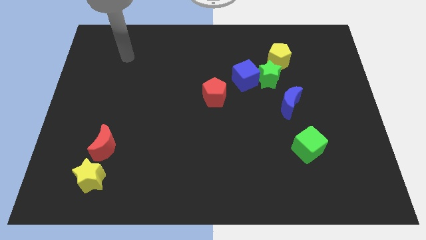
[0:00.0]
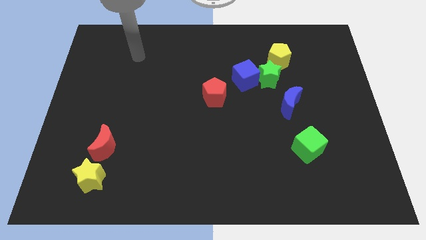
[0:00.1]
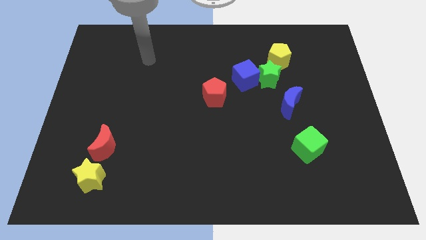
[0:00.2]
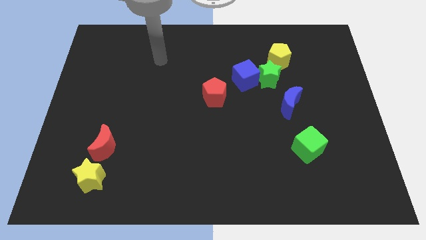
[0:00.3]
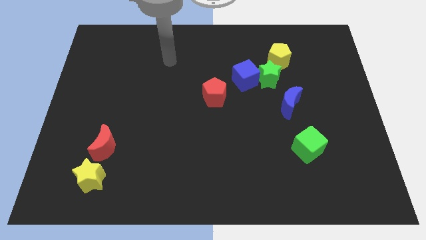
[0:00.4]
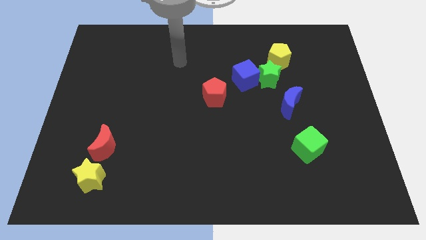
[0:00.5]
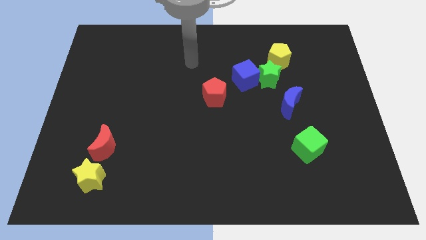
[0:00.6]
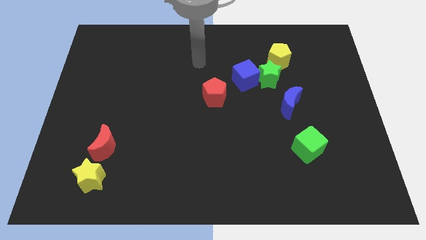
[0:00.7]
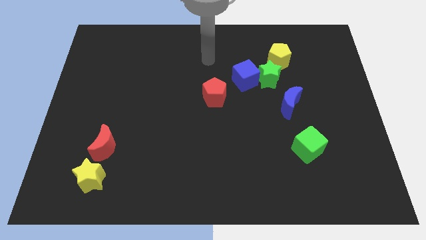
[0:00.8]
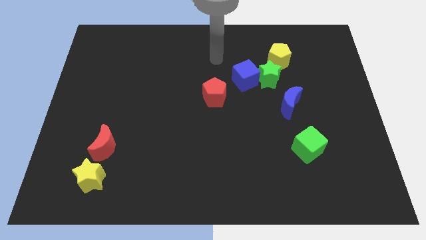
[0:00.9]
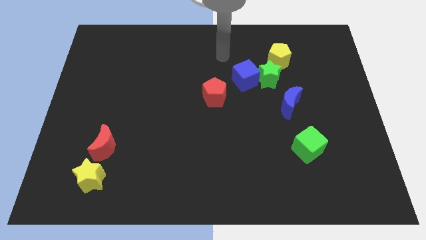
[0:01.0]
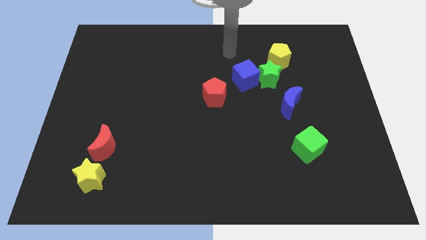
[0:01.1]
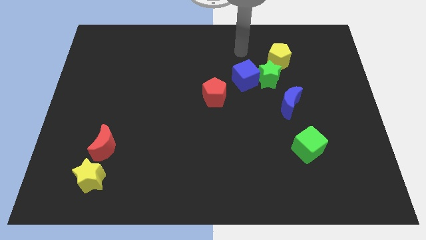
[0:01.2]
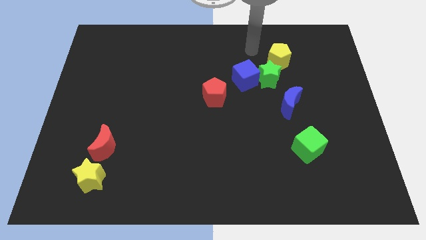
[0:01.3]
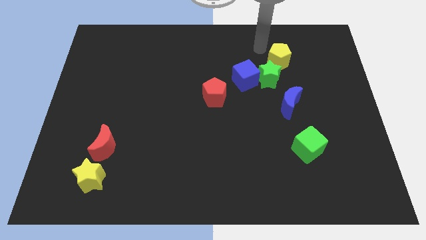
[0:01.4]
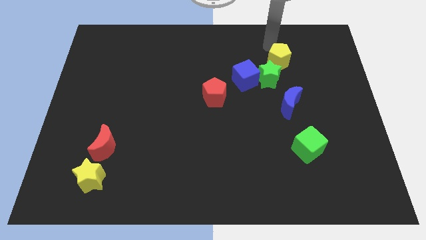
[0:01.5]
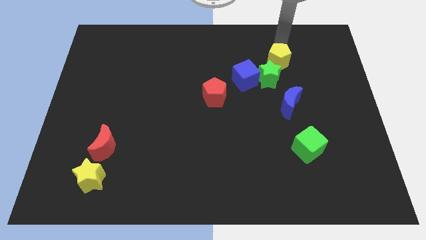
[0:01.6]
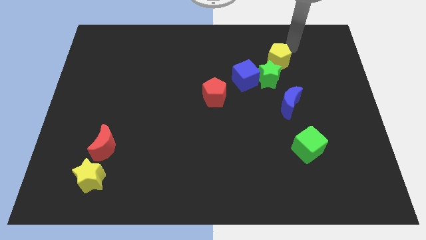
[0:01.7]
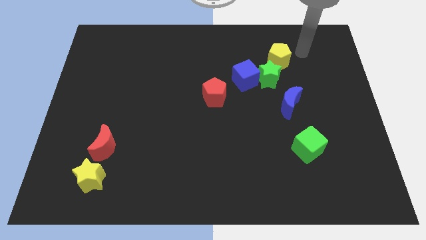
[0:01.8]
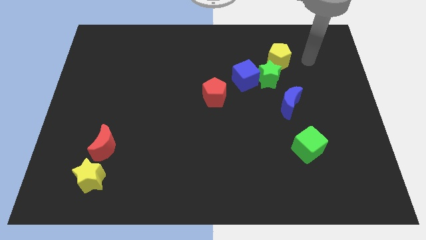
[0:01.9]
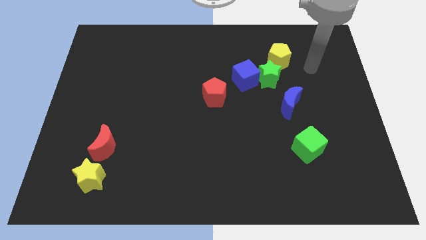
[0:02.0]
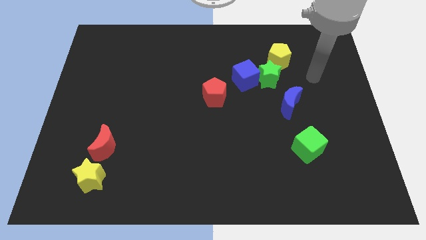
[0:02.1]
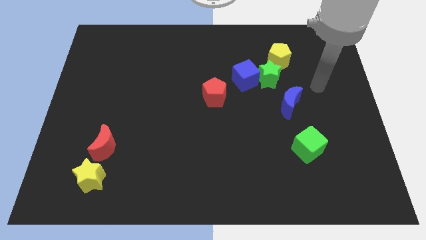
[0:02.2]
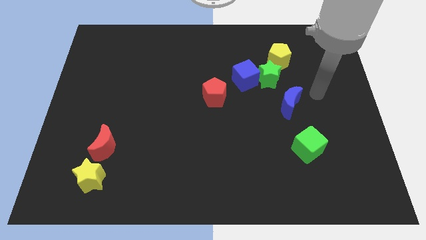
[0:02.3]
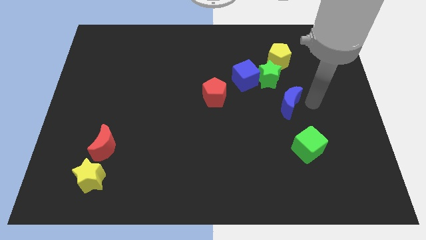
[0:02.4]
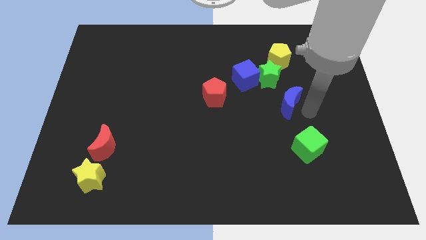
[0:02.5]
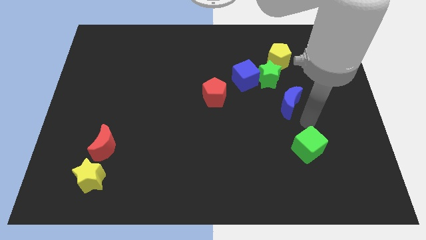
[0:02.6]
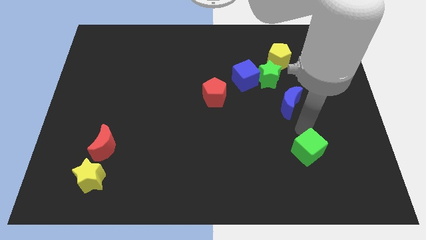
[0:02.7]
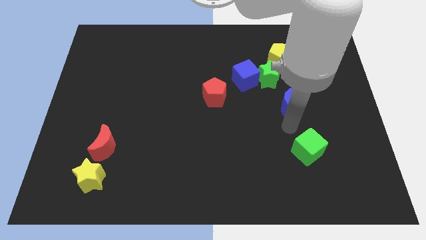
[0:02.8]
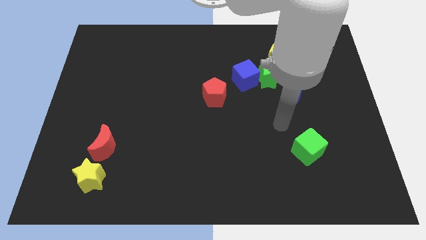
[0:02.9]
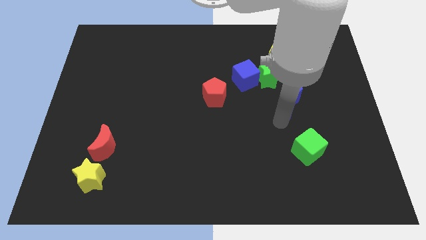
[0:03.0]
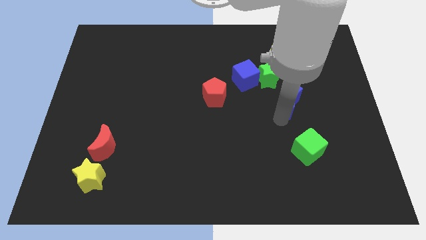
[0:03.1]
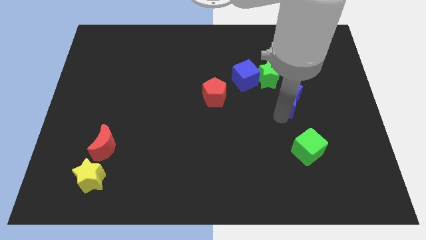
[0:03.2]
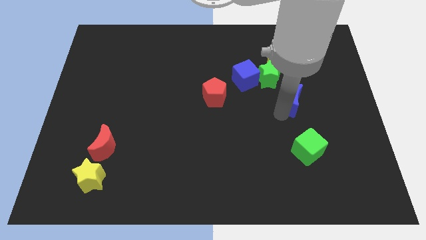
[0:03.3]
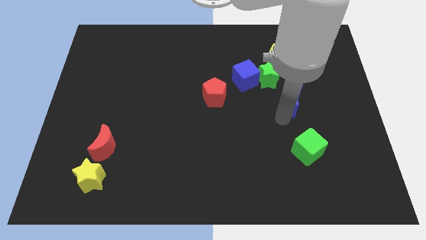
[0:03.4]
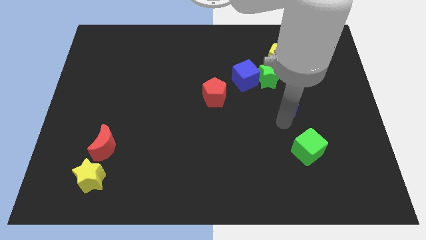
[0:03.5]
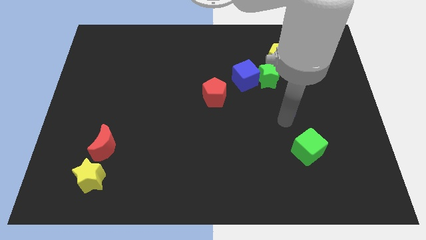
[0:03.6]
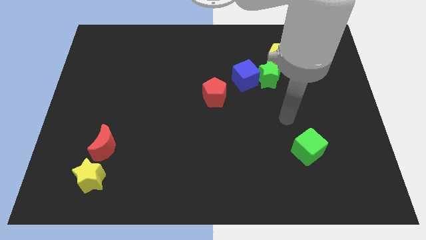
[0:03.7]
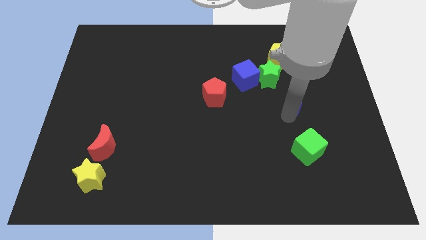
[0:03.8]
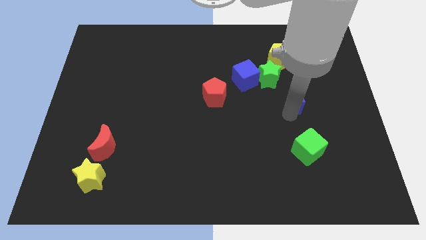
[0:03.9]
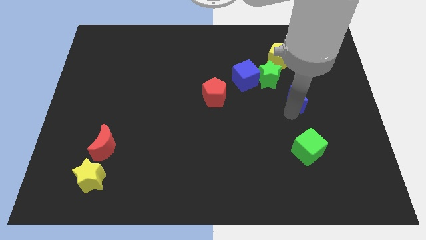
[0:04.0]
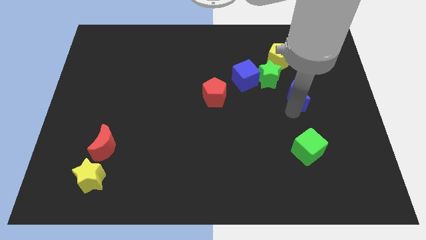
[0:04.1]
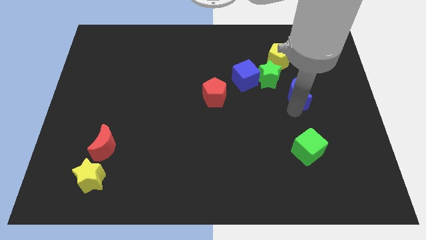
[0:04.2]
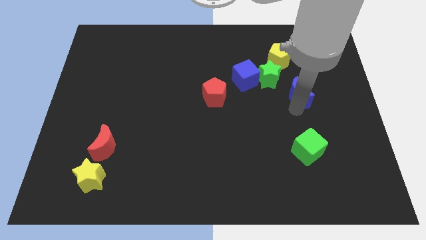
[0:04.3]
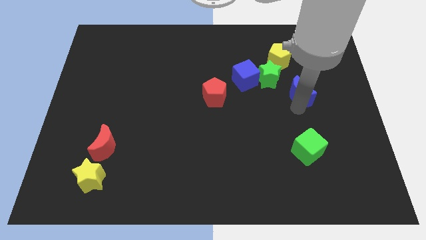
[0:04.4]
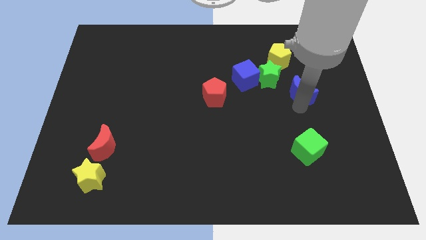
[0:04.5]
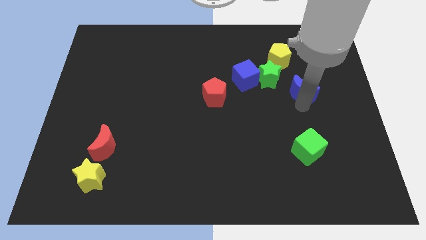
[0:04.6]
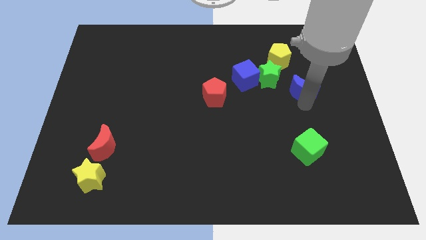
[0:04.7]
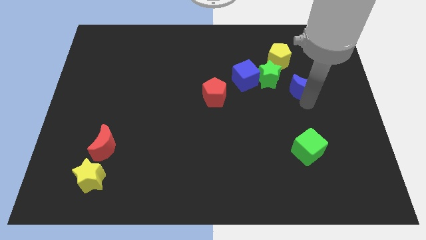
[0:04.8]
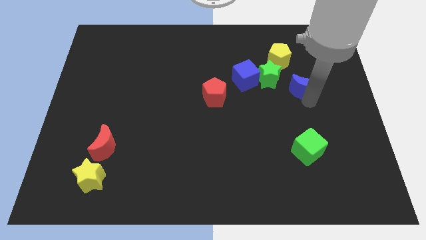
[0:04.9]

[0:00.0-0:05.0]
slide the blue moon to the bottom right side of the yellow pentagon

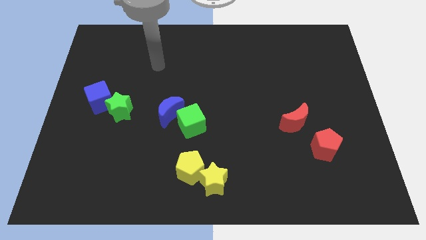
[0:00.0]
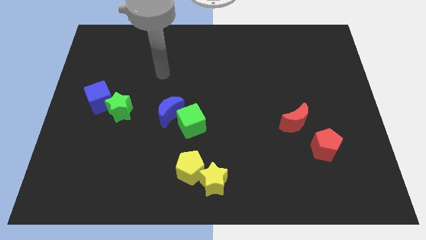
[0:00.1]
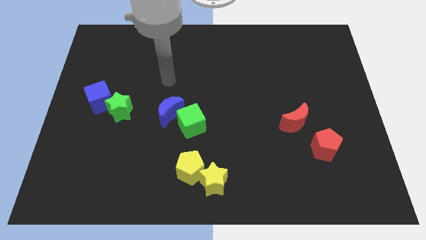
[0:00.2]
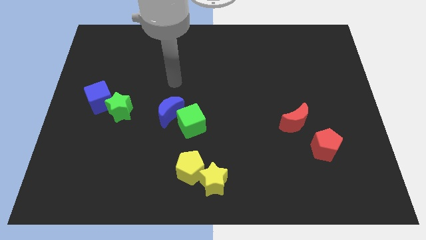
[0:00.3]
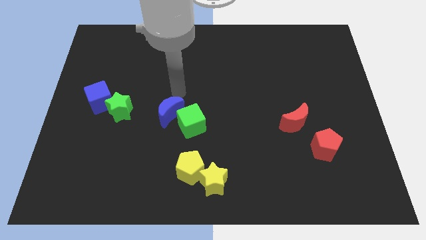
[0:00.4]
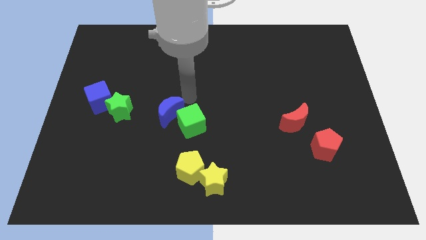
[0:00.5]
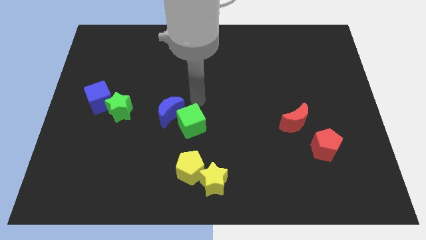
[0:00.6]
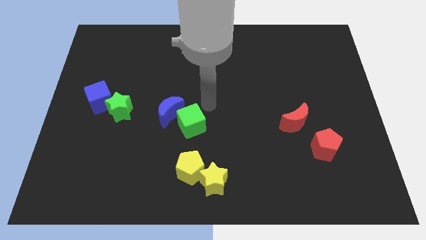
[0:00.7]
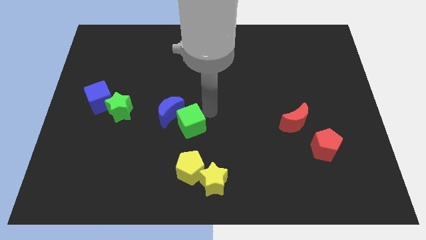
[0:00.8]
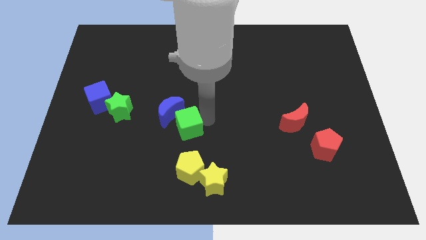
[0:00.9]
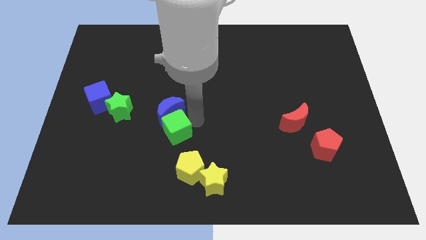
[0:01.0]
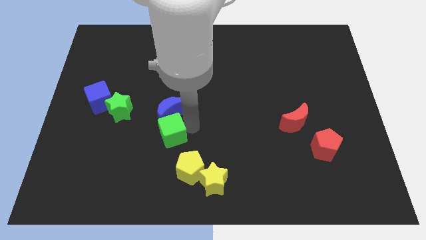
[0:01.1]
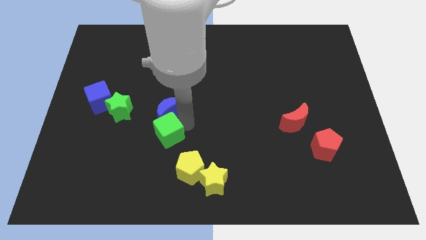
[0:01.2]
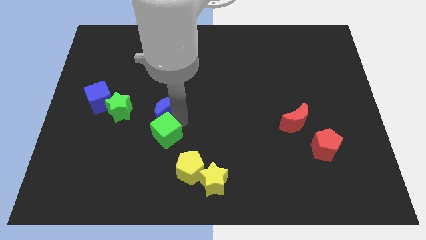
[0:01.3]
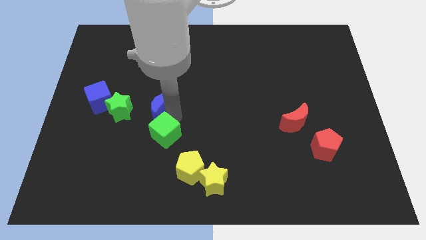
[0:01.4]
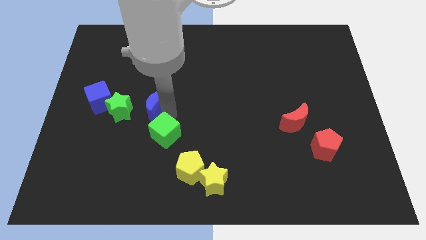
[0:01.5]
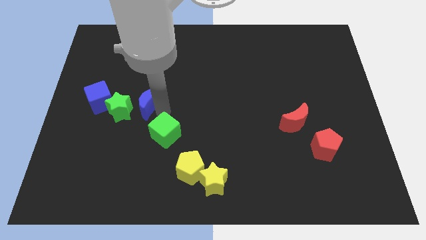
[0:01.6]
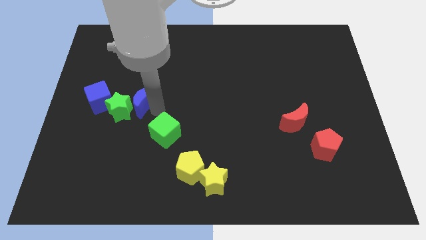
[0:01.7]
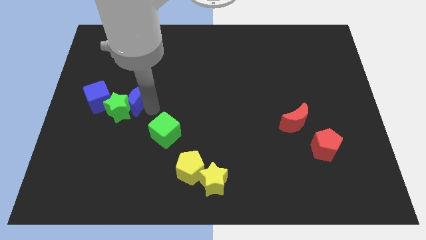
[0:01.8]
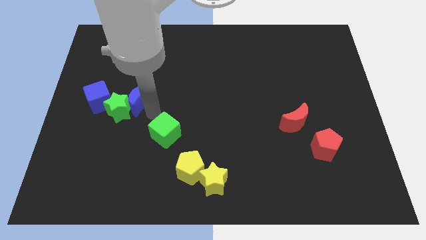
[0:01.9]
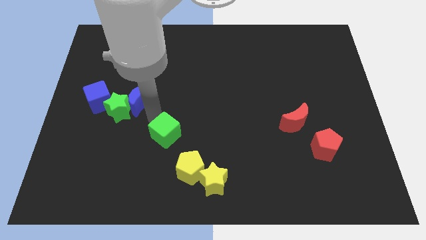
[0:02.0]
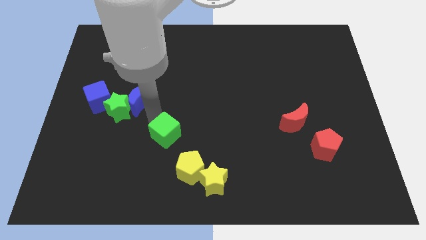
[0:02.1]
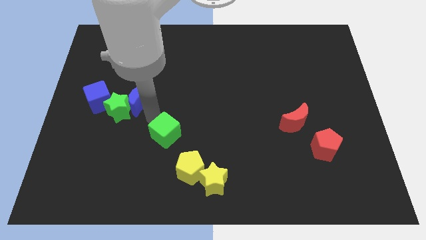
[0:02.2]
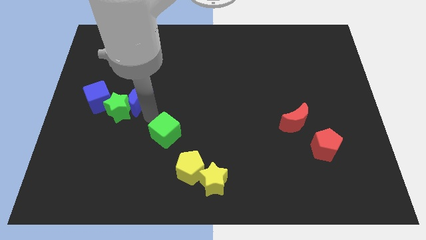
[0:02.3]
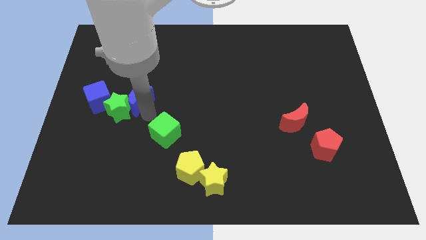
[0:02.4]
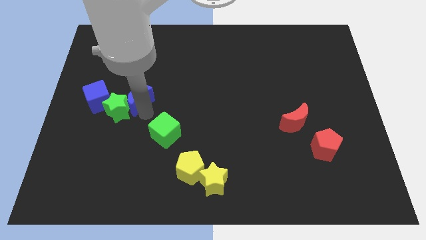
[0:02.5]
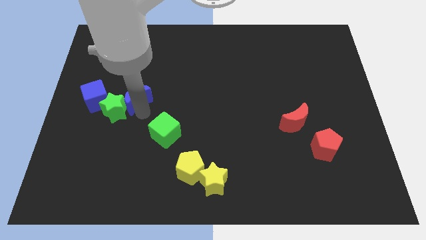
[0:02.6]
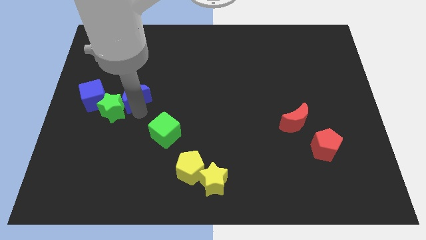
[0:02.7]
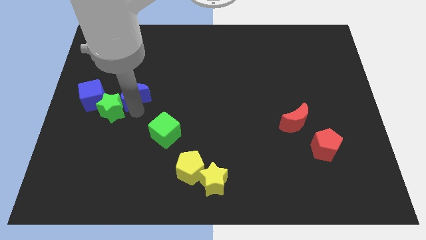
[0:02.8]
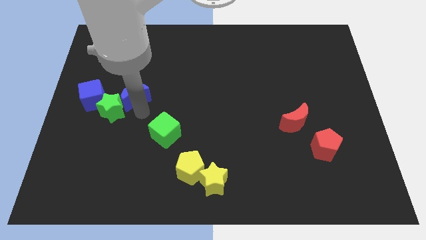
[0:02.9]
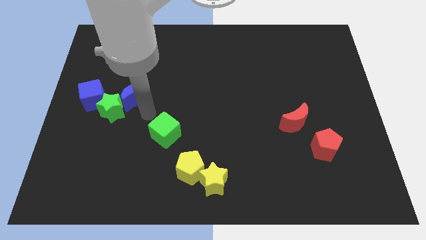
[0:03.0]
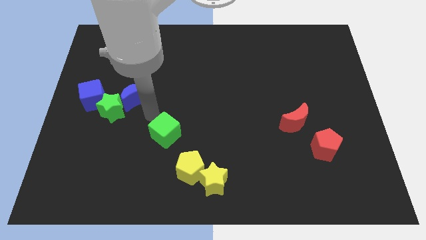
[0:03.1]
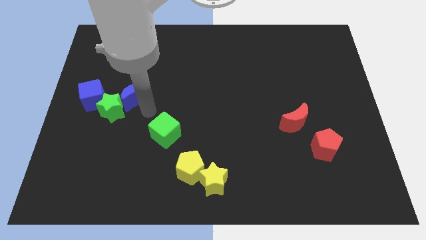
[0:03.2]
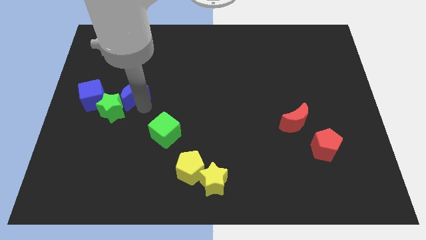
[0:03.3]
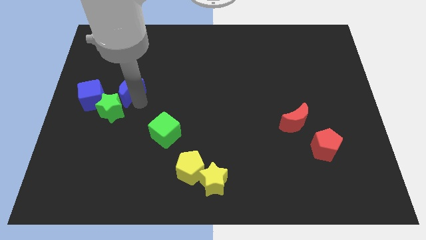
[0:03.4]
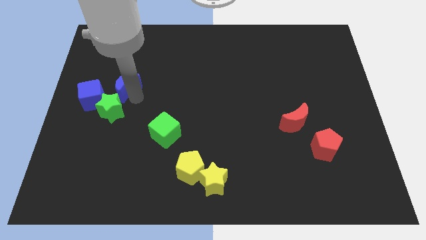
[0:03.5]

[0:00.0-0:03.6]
move the blue moon to the top right side of the blue cube
